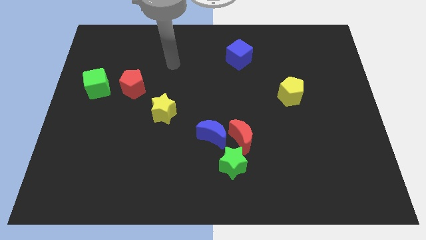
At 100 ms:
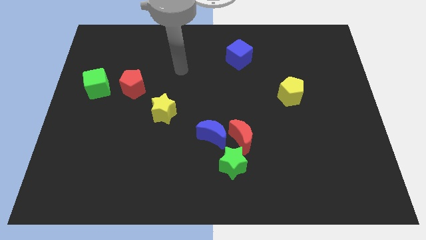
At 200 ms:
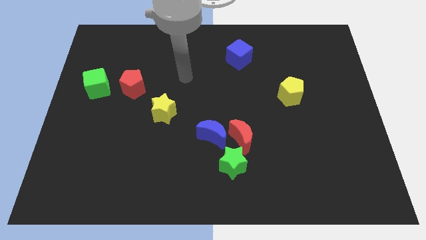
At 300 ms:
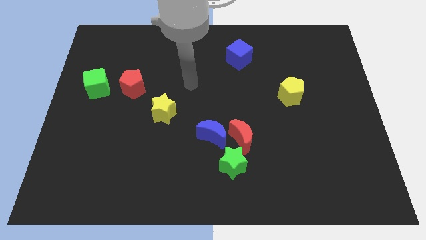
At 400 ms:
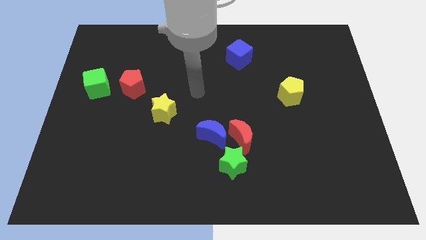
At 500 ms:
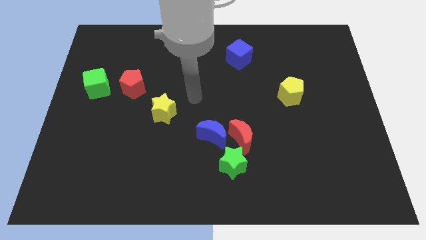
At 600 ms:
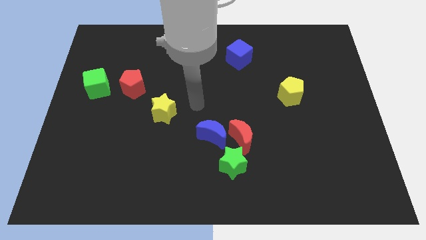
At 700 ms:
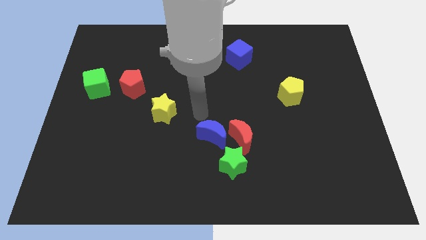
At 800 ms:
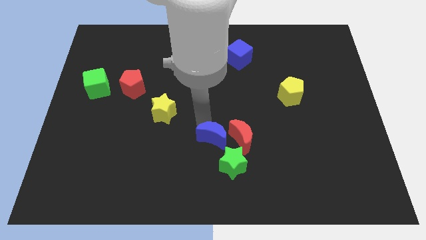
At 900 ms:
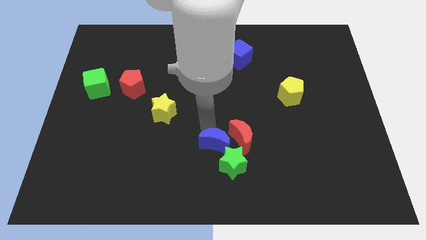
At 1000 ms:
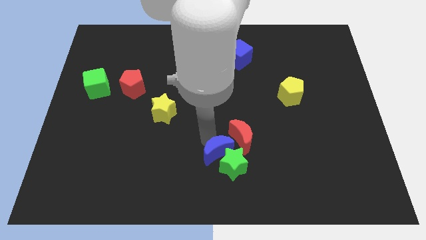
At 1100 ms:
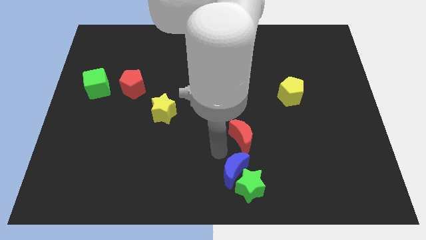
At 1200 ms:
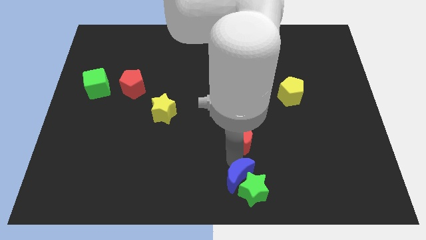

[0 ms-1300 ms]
separate the red moon from the blue moon and green star

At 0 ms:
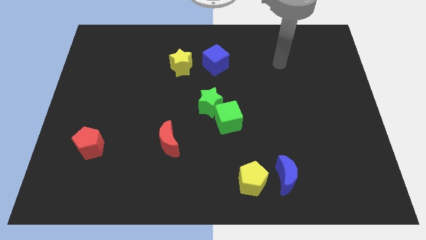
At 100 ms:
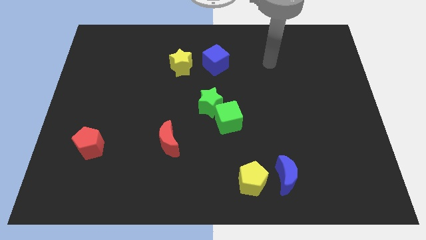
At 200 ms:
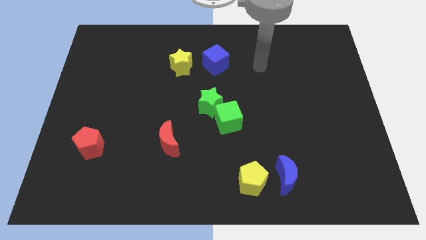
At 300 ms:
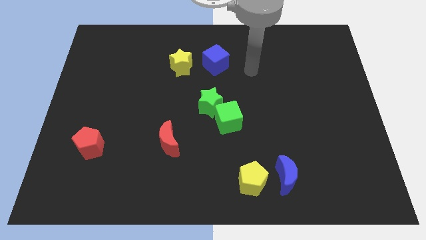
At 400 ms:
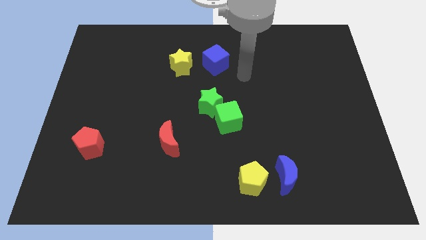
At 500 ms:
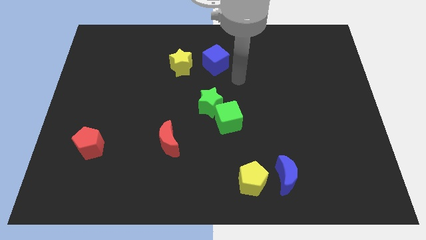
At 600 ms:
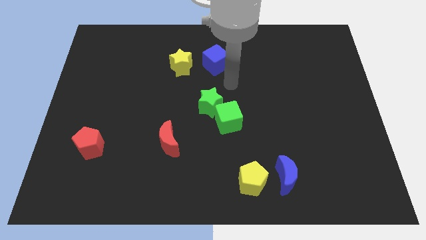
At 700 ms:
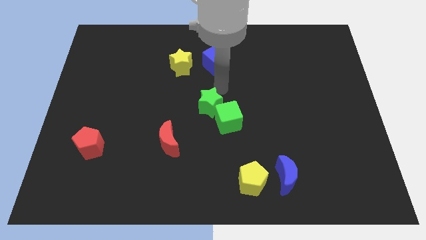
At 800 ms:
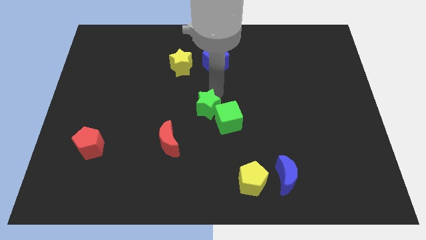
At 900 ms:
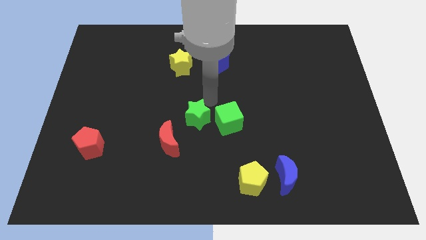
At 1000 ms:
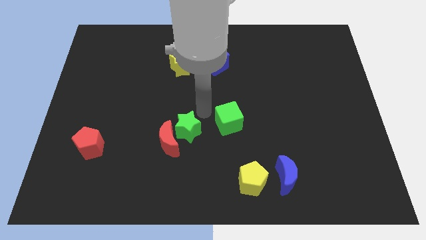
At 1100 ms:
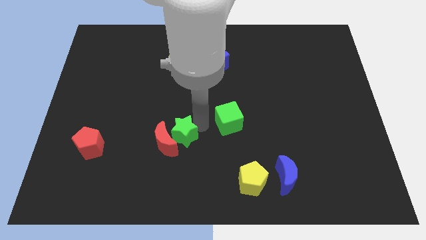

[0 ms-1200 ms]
move the green cube away from the green star

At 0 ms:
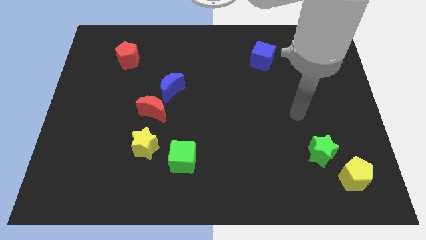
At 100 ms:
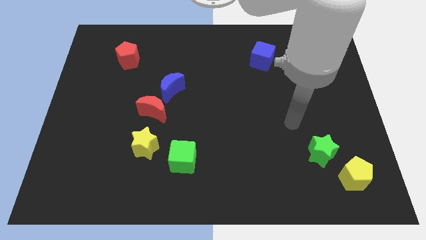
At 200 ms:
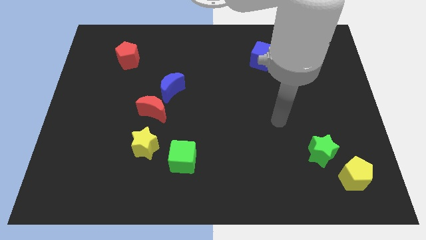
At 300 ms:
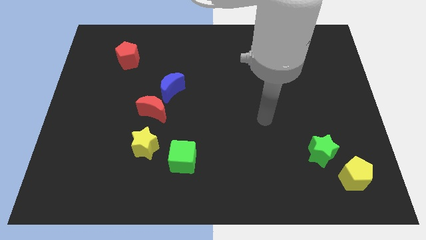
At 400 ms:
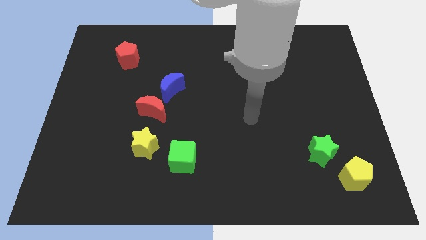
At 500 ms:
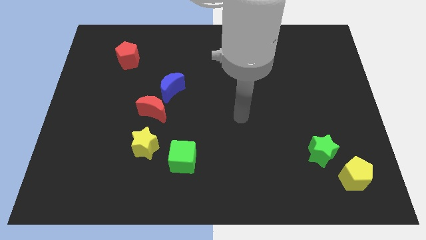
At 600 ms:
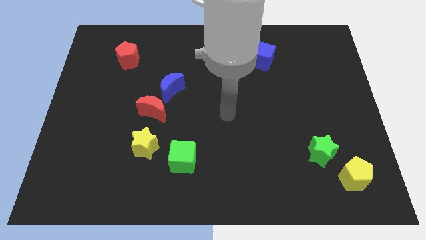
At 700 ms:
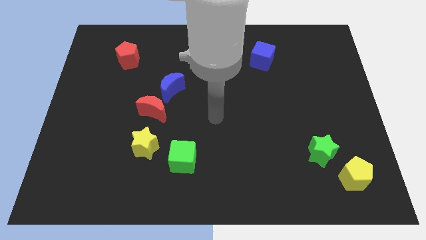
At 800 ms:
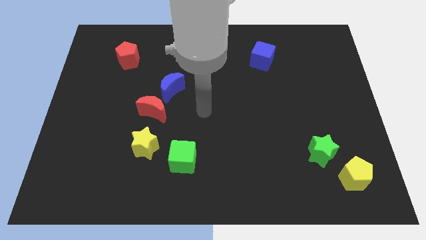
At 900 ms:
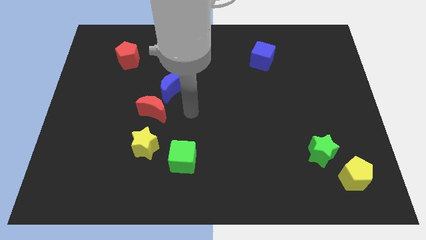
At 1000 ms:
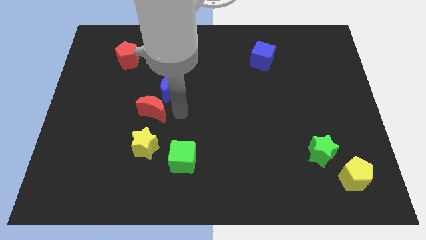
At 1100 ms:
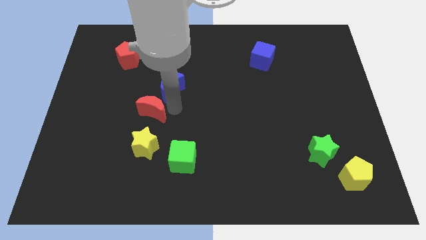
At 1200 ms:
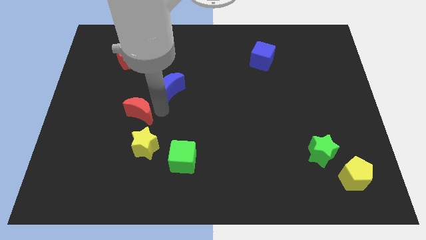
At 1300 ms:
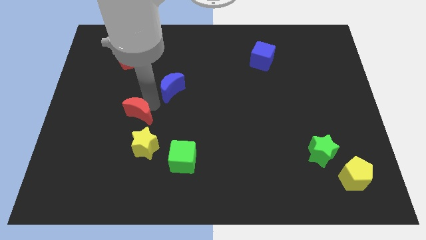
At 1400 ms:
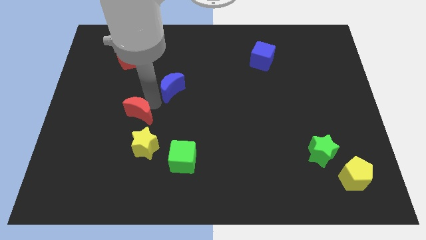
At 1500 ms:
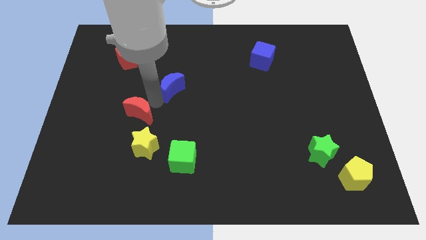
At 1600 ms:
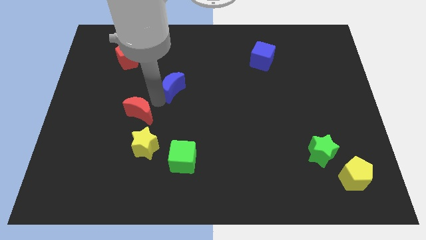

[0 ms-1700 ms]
move the blue moon away from the red moon

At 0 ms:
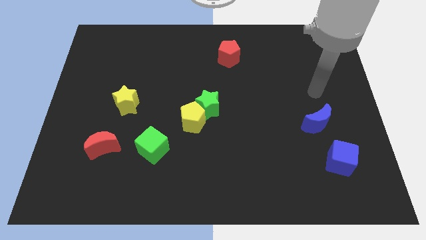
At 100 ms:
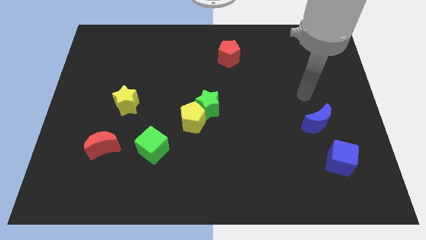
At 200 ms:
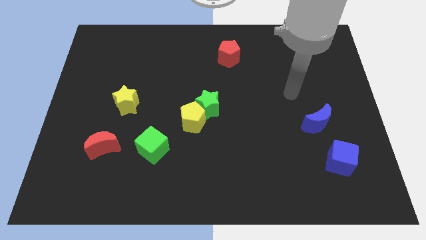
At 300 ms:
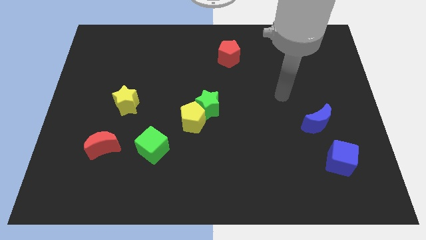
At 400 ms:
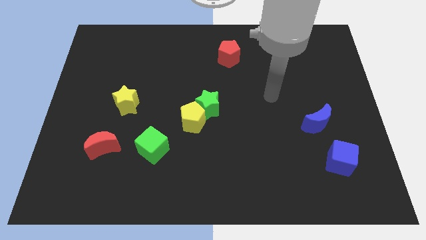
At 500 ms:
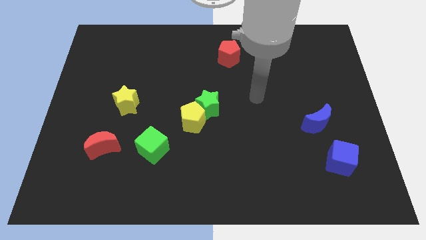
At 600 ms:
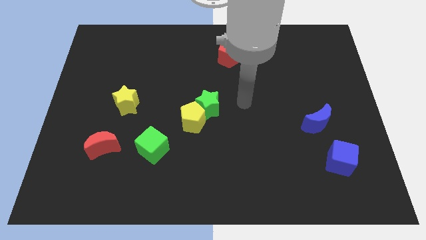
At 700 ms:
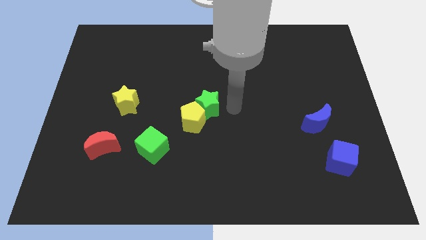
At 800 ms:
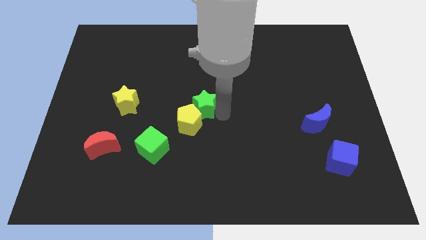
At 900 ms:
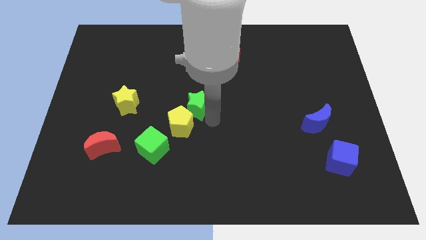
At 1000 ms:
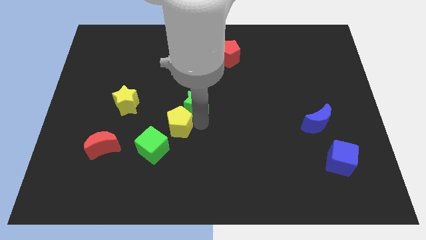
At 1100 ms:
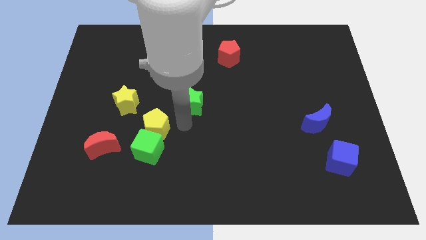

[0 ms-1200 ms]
move the green star away from the yellow pentagon

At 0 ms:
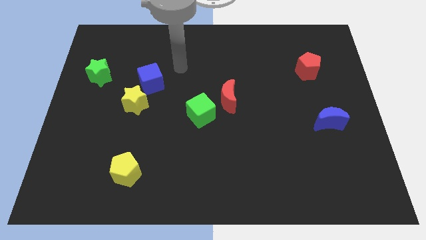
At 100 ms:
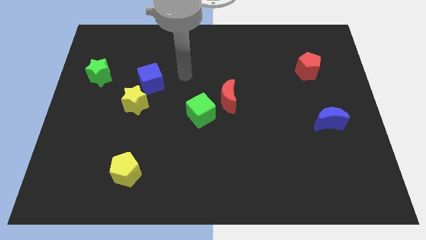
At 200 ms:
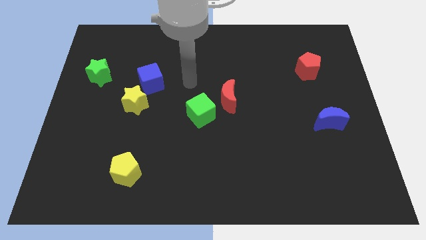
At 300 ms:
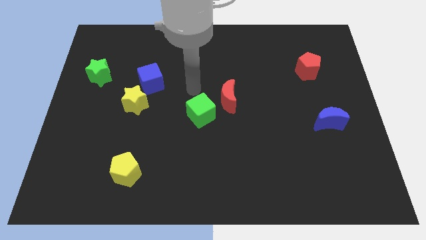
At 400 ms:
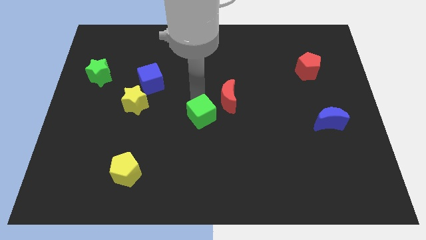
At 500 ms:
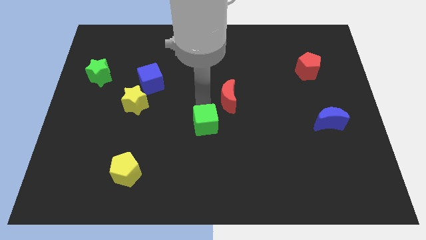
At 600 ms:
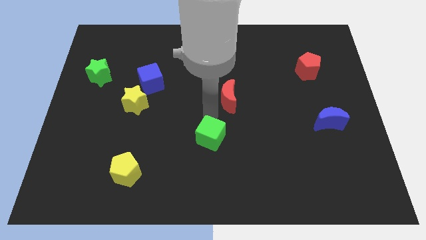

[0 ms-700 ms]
separate the red moon from the green cube

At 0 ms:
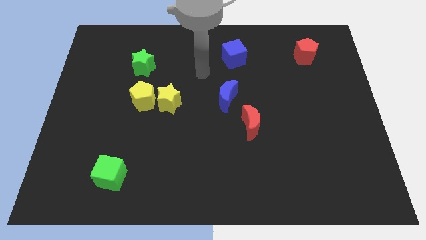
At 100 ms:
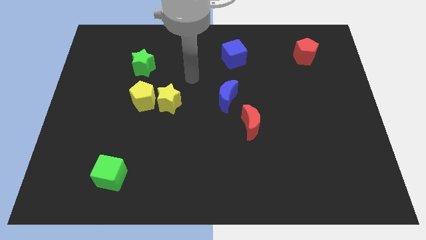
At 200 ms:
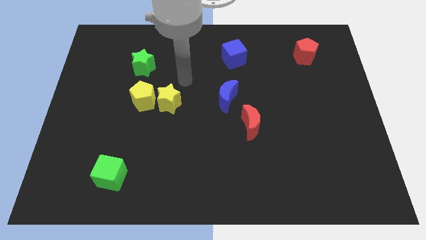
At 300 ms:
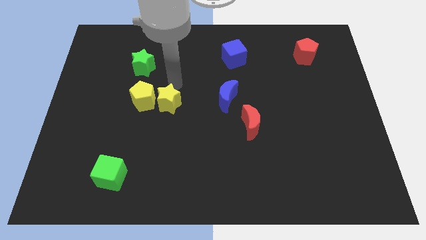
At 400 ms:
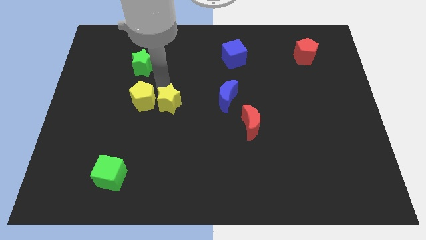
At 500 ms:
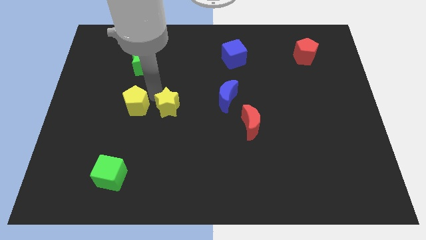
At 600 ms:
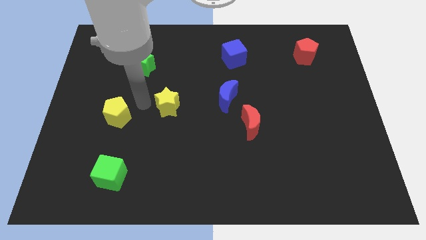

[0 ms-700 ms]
separate the yellow star from the yellow pentagon

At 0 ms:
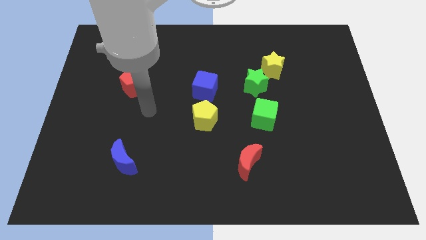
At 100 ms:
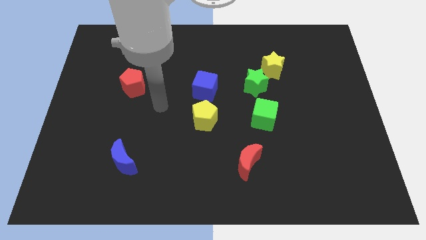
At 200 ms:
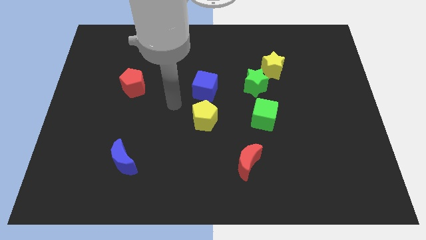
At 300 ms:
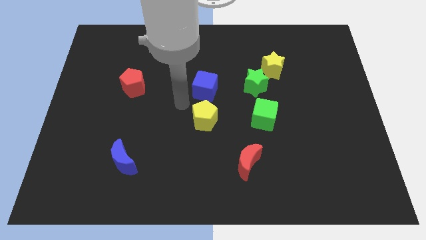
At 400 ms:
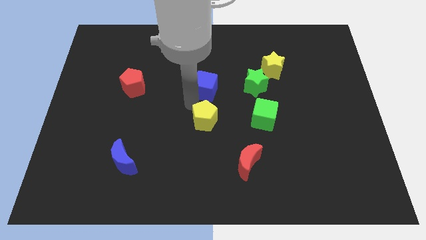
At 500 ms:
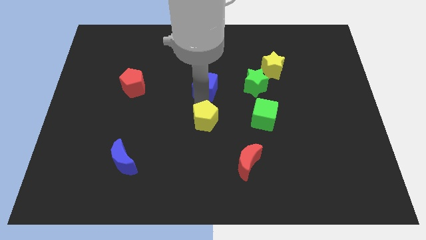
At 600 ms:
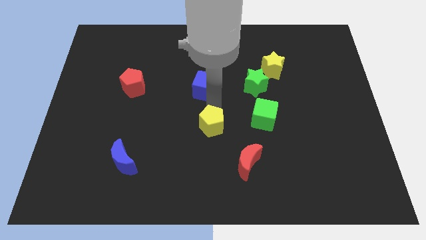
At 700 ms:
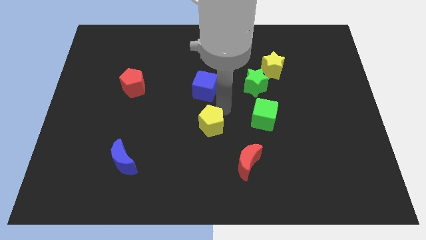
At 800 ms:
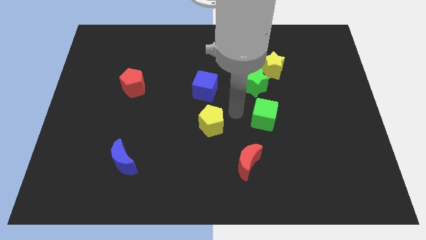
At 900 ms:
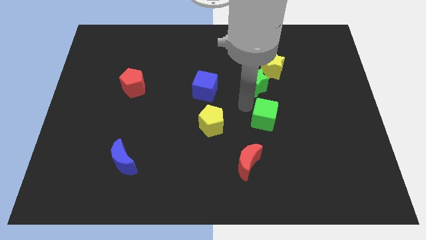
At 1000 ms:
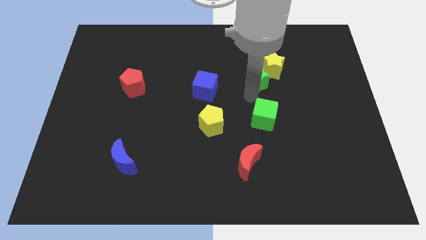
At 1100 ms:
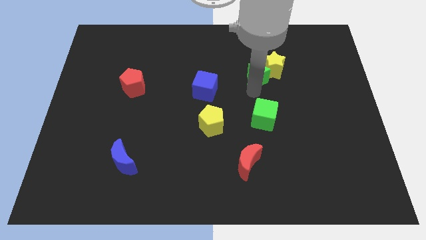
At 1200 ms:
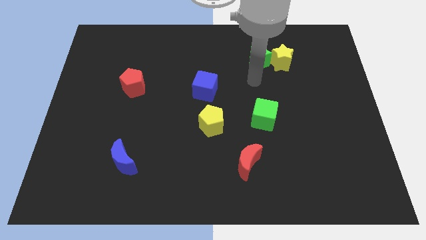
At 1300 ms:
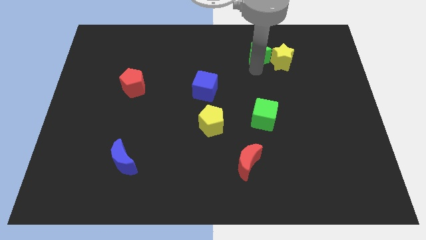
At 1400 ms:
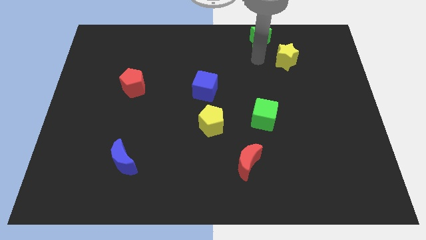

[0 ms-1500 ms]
pull the yellow star apart from the green star

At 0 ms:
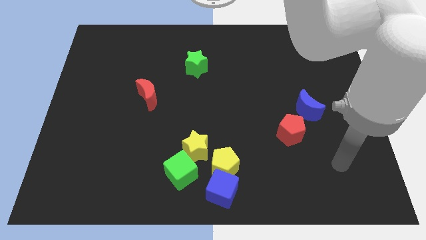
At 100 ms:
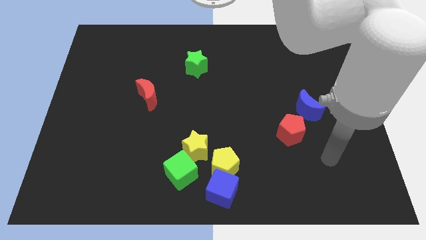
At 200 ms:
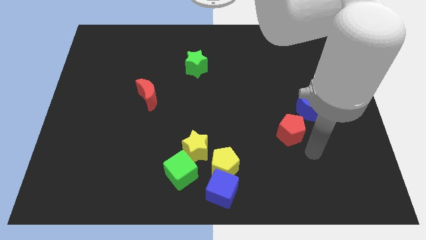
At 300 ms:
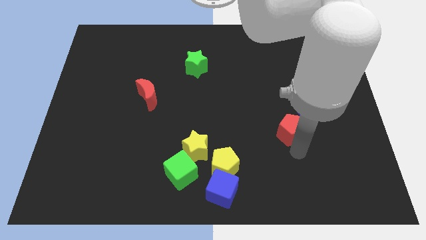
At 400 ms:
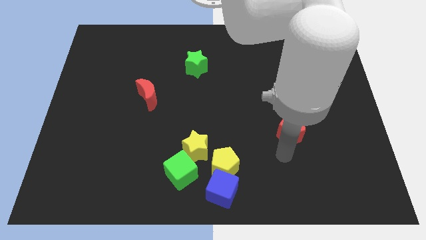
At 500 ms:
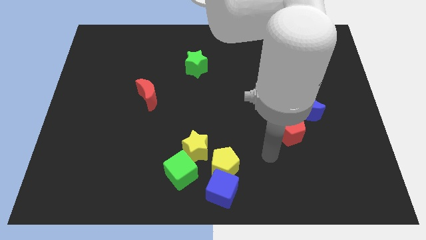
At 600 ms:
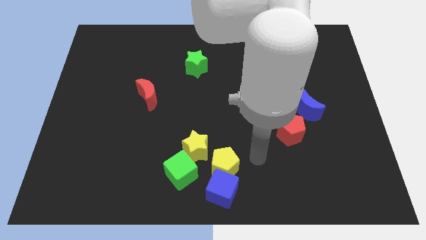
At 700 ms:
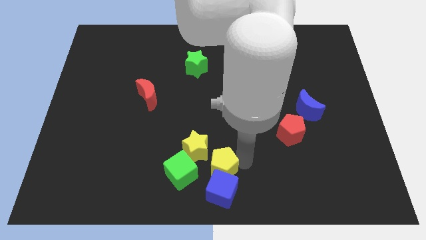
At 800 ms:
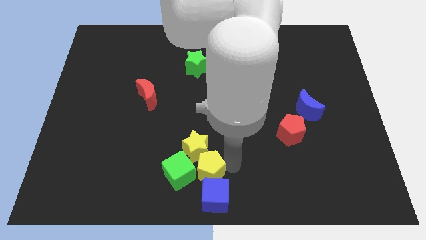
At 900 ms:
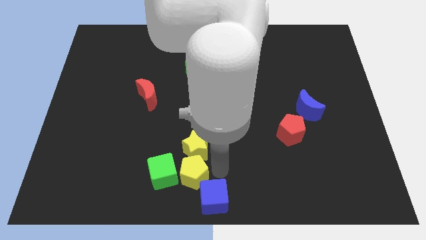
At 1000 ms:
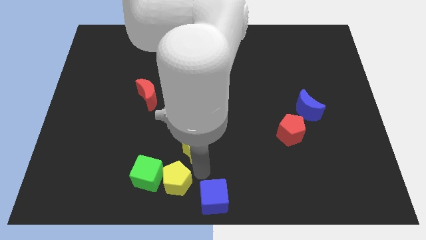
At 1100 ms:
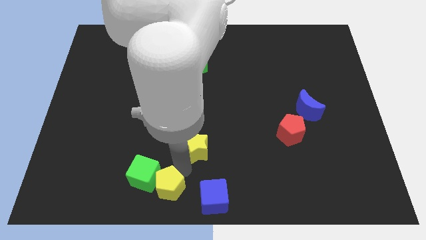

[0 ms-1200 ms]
separate the yellow star from the green cube and yellow pentagon

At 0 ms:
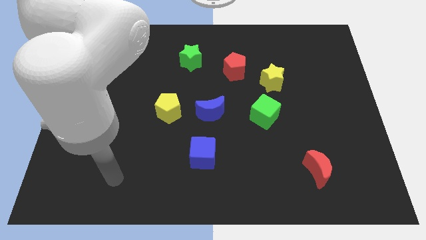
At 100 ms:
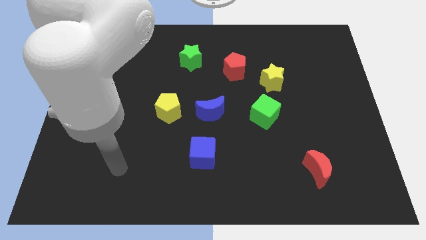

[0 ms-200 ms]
separate the blue moon from the yellow pentagon
